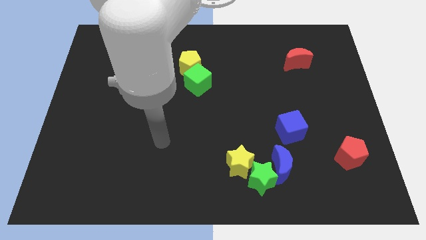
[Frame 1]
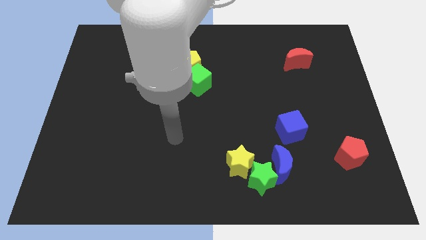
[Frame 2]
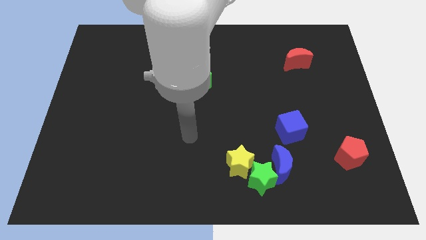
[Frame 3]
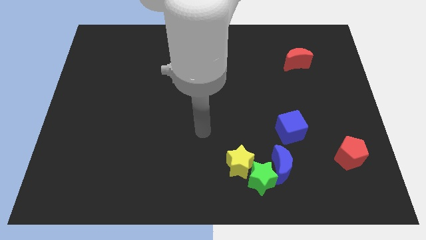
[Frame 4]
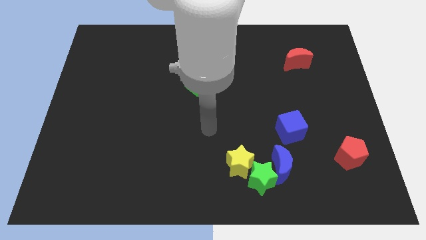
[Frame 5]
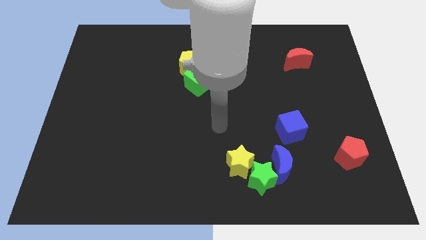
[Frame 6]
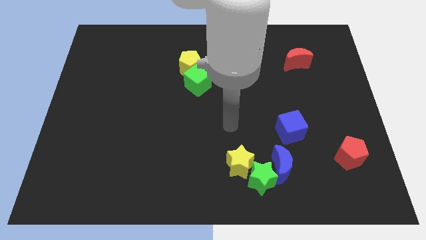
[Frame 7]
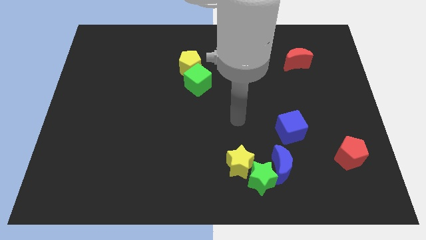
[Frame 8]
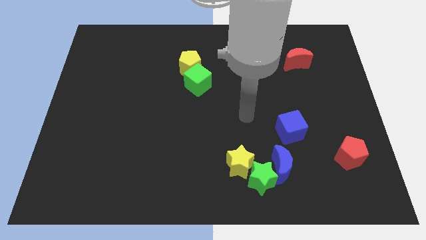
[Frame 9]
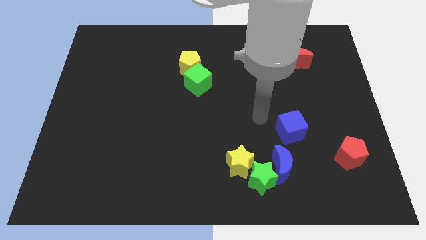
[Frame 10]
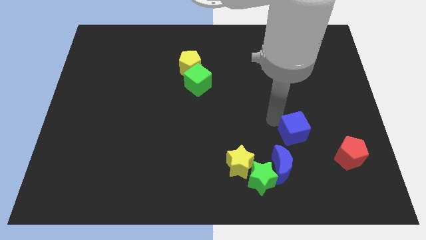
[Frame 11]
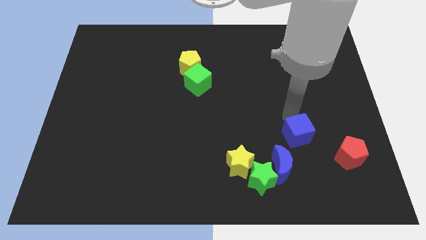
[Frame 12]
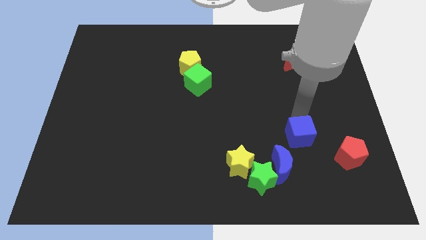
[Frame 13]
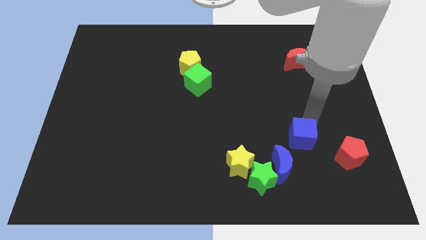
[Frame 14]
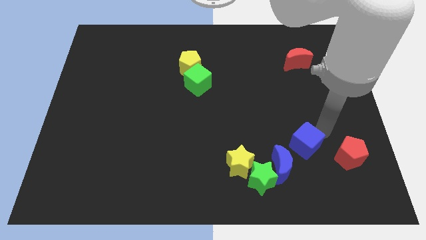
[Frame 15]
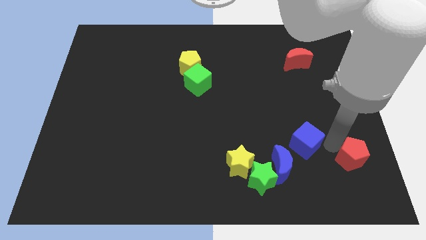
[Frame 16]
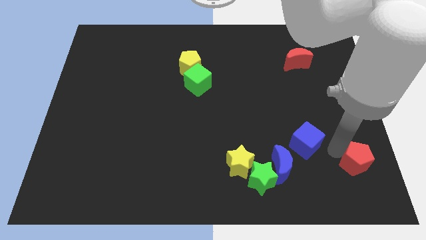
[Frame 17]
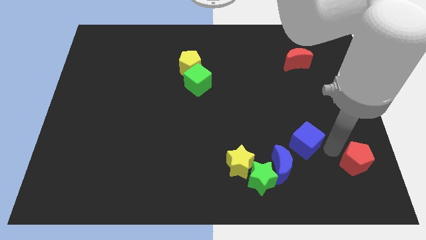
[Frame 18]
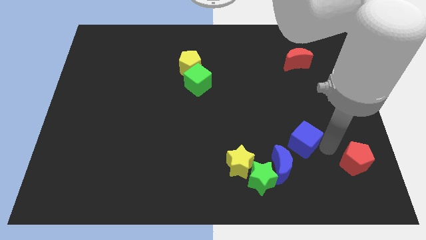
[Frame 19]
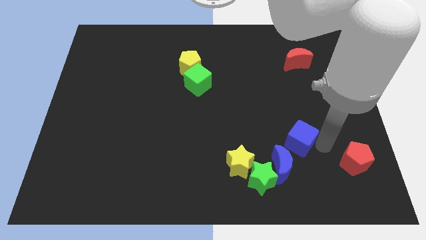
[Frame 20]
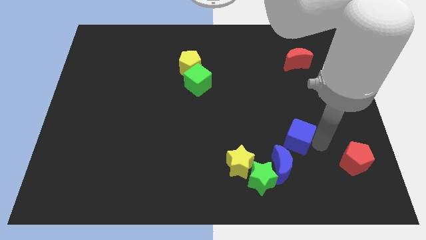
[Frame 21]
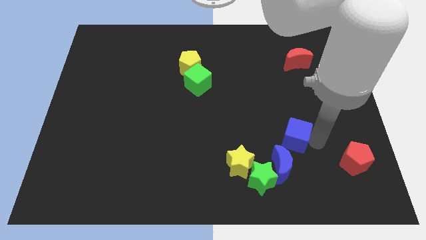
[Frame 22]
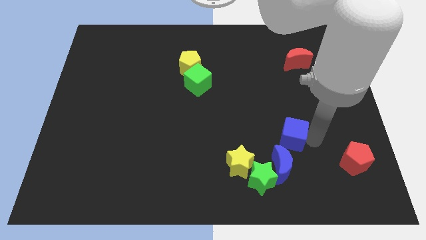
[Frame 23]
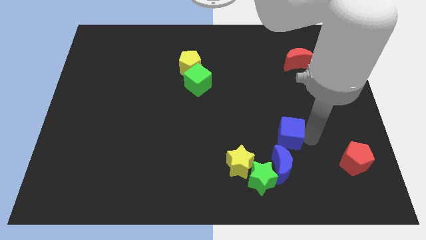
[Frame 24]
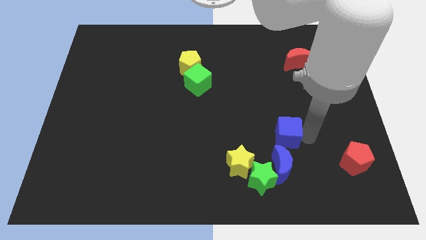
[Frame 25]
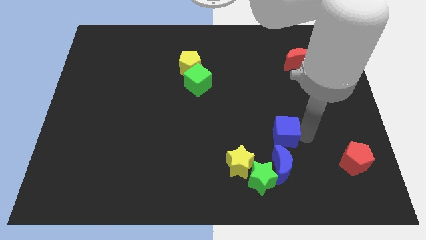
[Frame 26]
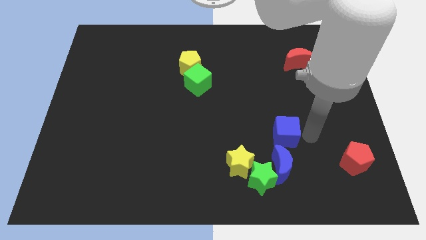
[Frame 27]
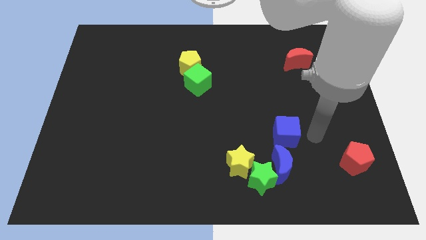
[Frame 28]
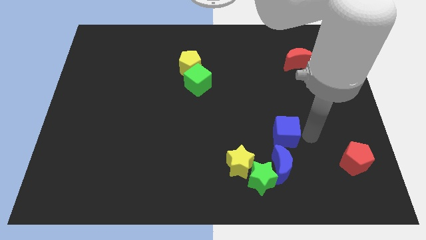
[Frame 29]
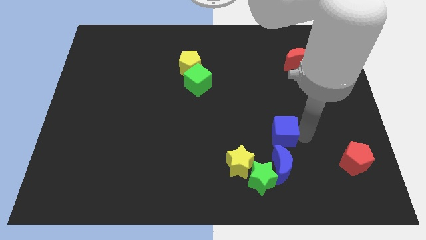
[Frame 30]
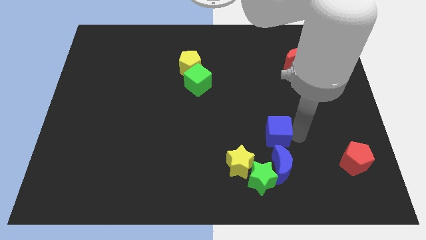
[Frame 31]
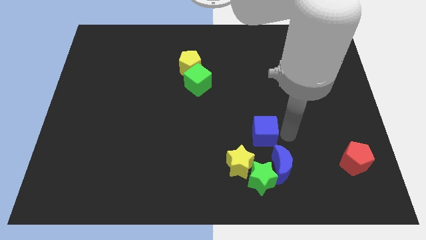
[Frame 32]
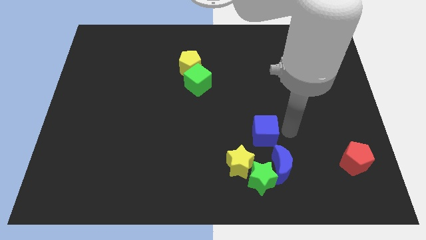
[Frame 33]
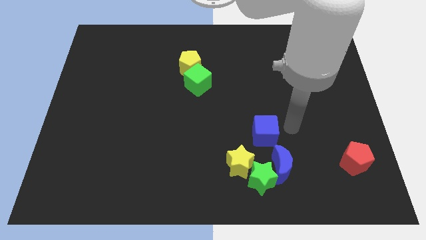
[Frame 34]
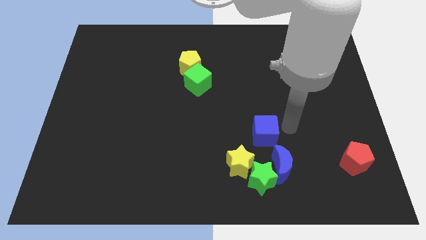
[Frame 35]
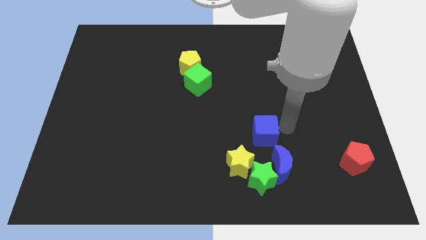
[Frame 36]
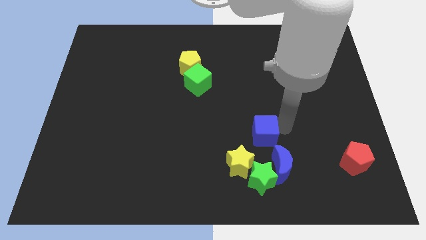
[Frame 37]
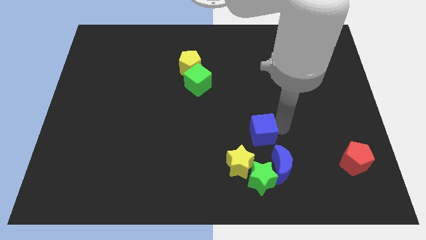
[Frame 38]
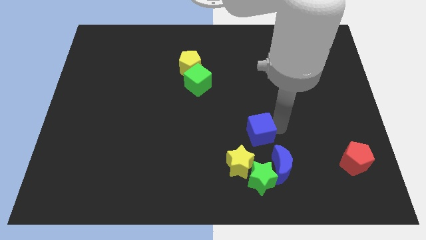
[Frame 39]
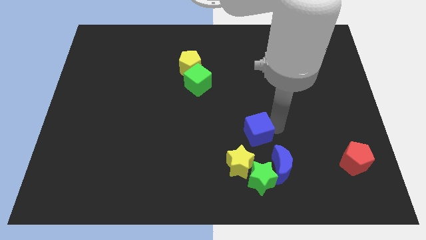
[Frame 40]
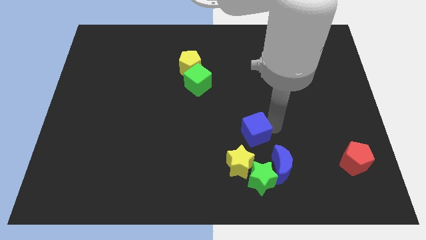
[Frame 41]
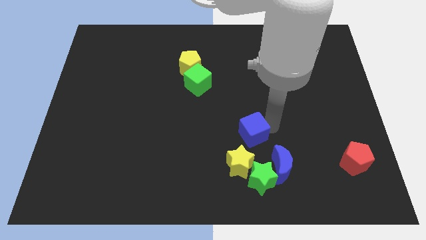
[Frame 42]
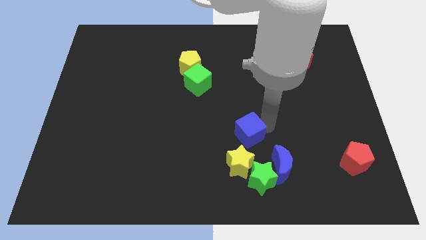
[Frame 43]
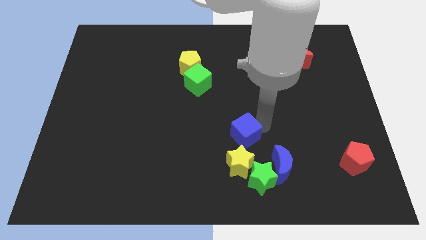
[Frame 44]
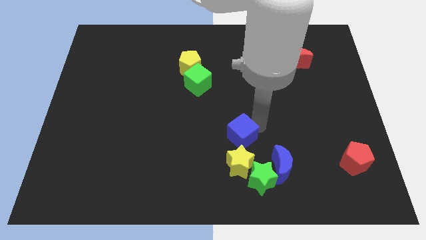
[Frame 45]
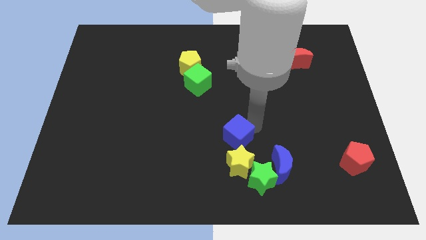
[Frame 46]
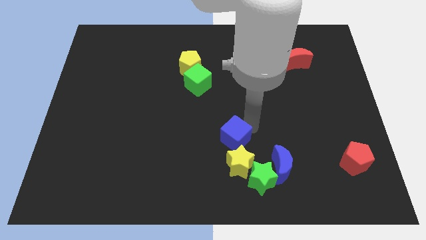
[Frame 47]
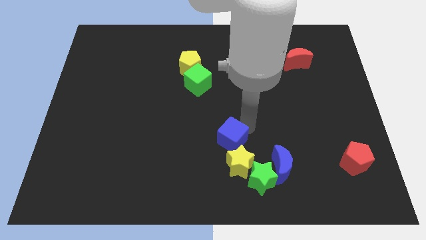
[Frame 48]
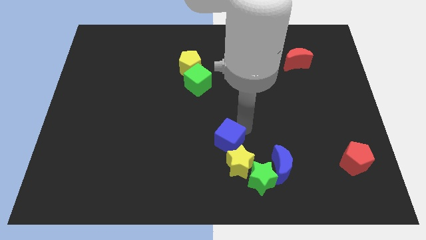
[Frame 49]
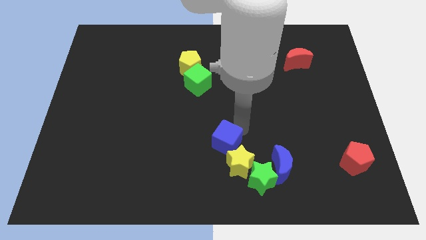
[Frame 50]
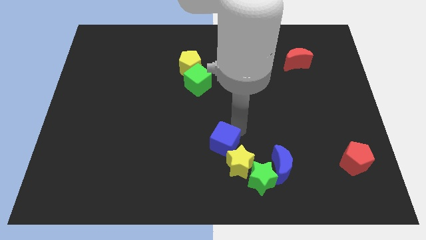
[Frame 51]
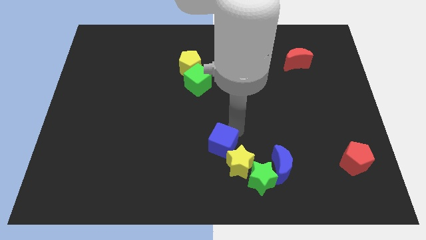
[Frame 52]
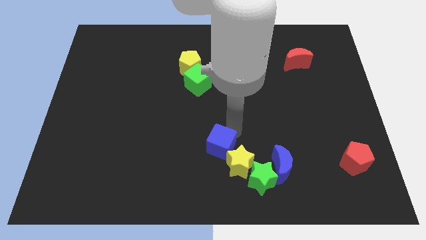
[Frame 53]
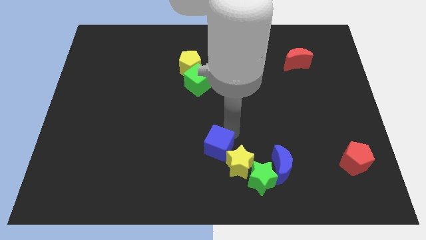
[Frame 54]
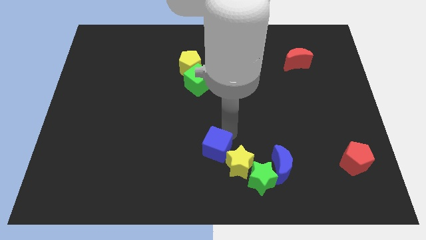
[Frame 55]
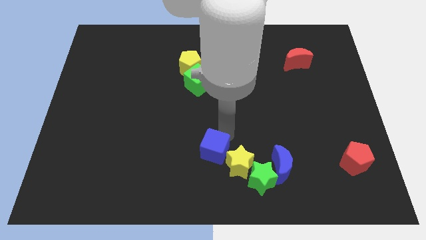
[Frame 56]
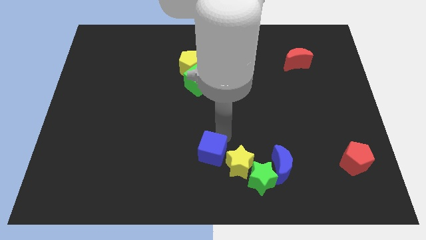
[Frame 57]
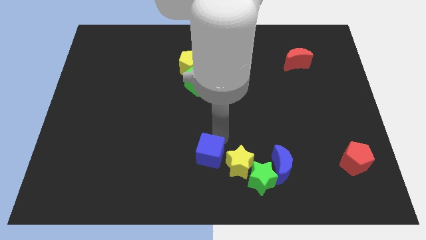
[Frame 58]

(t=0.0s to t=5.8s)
put the blue cube to the bottom

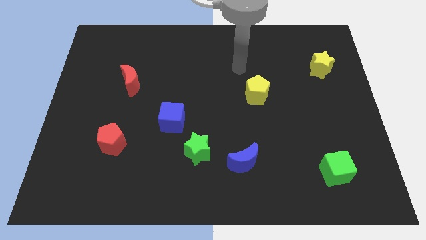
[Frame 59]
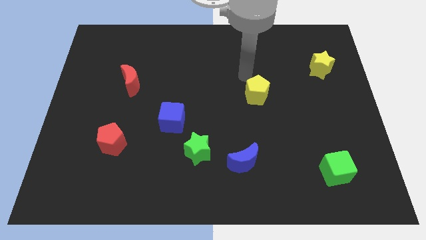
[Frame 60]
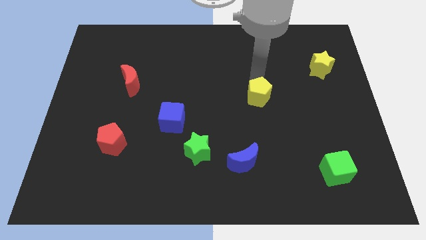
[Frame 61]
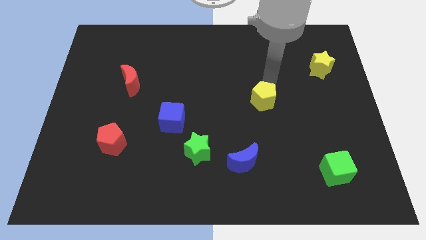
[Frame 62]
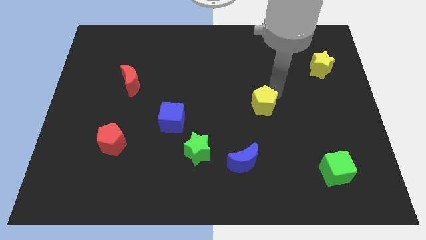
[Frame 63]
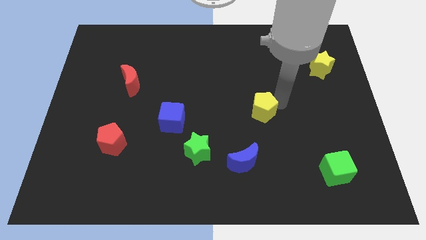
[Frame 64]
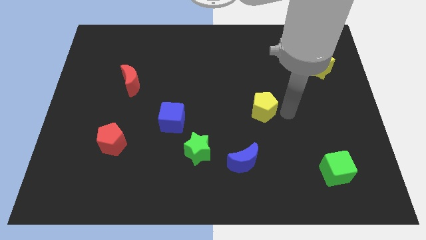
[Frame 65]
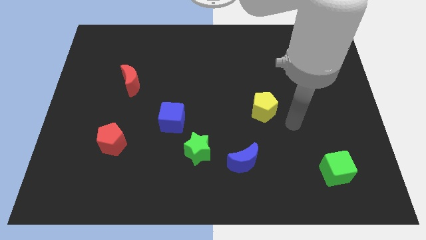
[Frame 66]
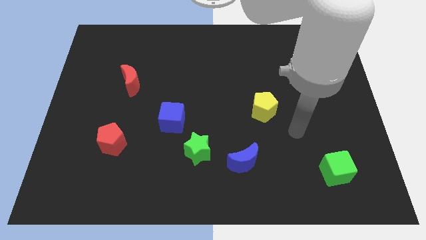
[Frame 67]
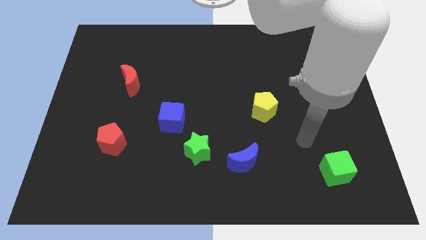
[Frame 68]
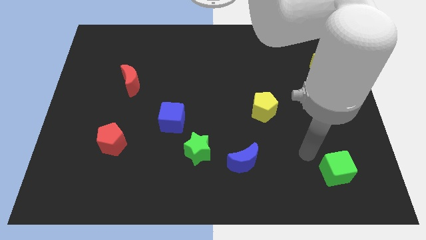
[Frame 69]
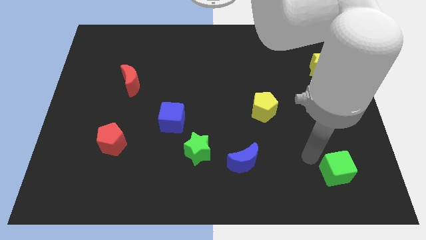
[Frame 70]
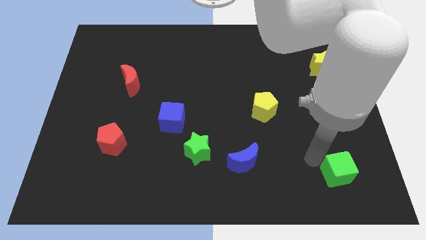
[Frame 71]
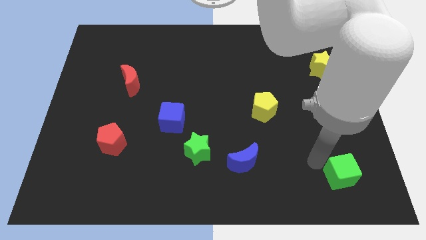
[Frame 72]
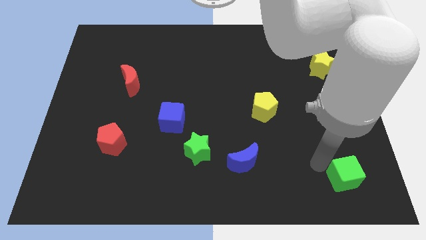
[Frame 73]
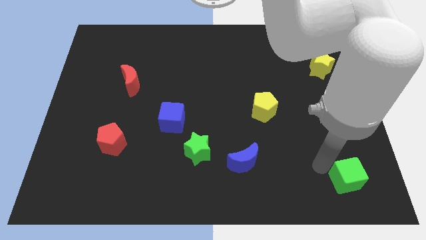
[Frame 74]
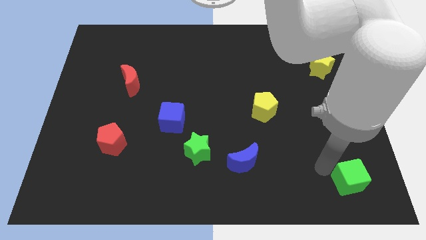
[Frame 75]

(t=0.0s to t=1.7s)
slide the green cube to the bottom right
